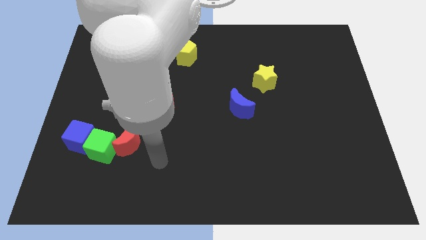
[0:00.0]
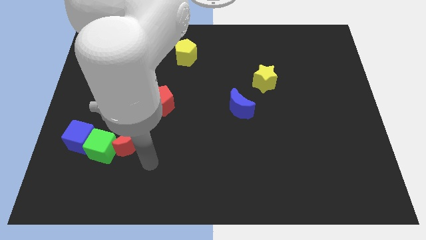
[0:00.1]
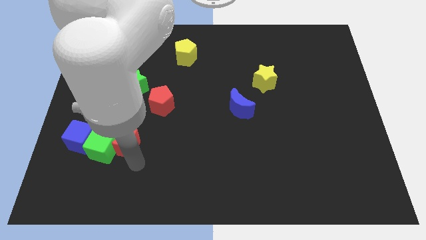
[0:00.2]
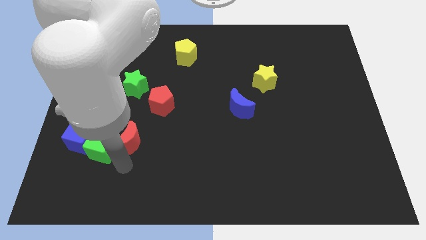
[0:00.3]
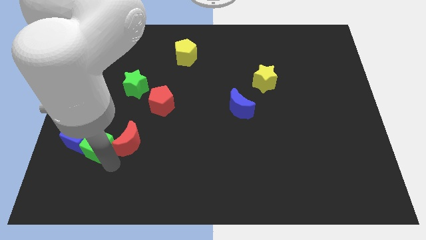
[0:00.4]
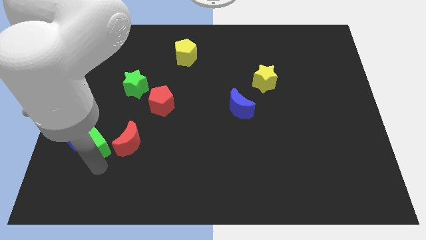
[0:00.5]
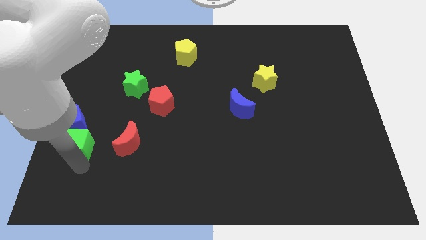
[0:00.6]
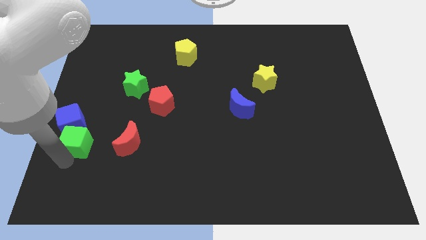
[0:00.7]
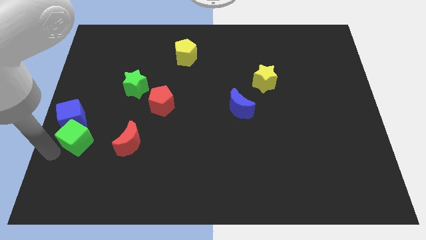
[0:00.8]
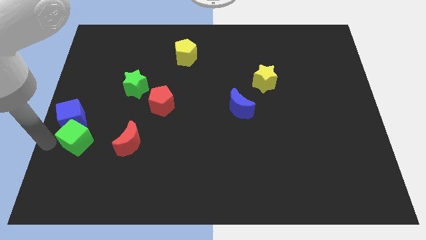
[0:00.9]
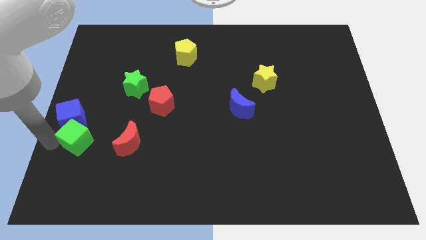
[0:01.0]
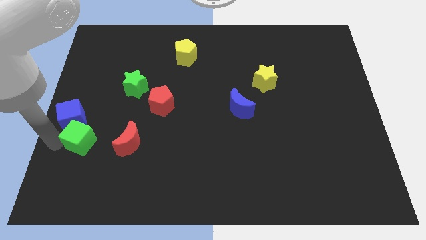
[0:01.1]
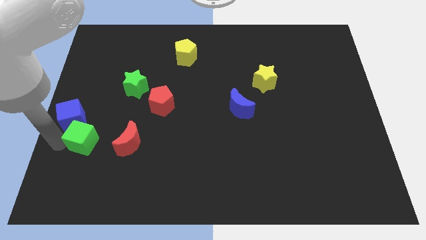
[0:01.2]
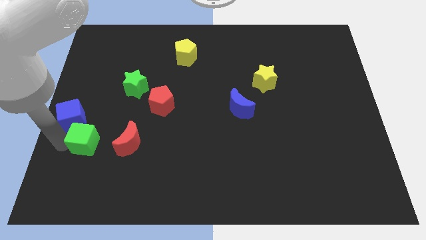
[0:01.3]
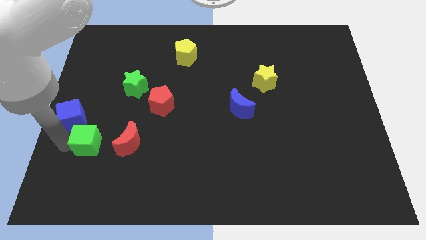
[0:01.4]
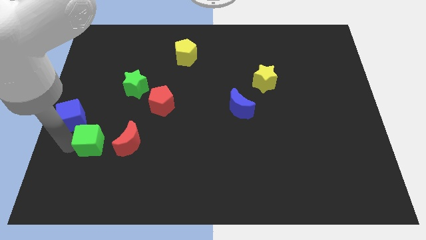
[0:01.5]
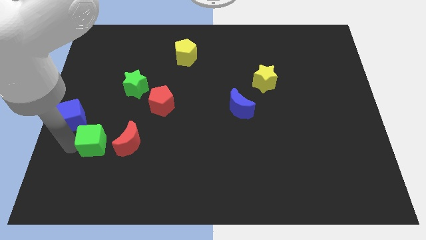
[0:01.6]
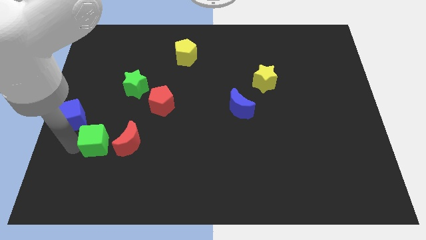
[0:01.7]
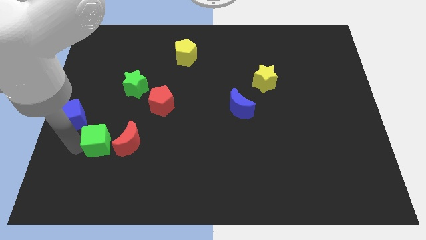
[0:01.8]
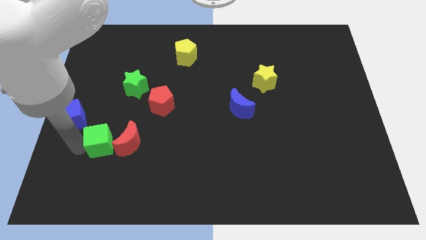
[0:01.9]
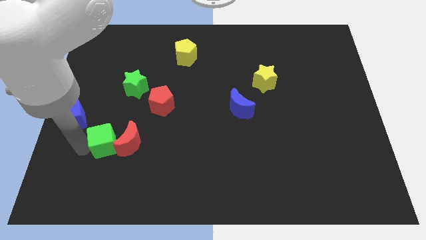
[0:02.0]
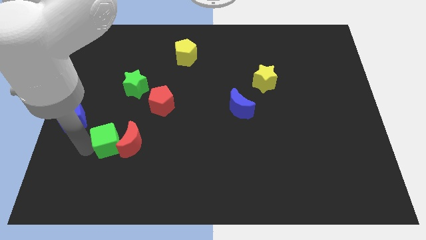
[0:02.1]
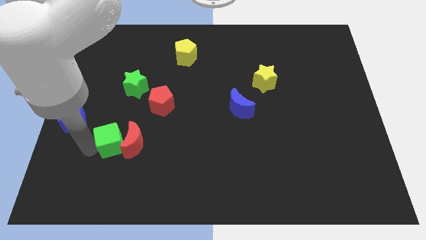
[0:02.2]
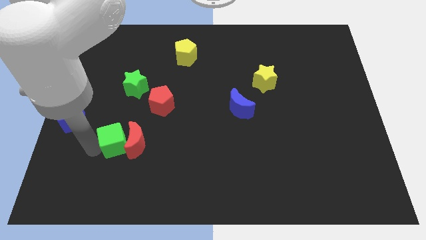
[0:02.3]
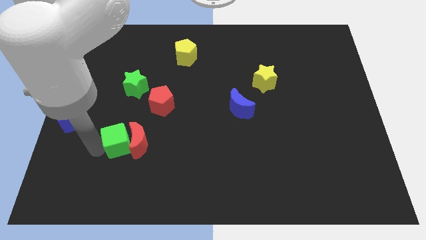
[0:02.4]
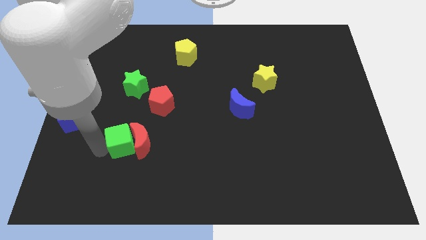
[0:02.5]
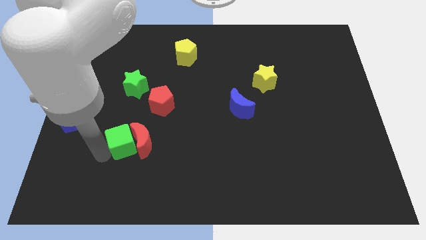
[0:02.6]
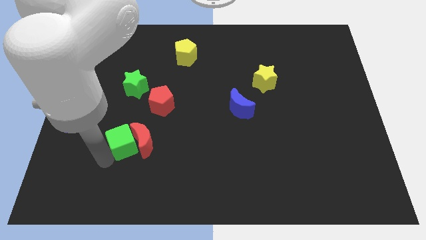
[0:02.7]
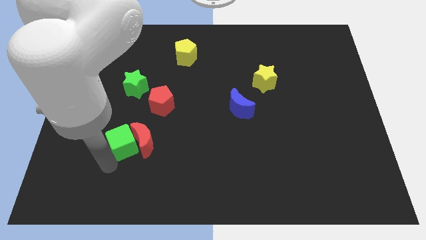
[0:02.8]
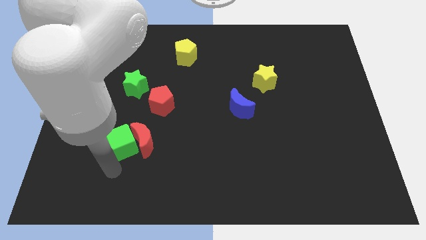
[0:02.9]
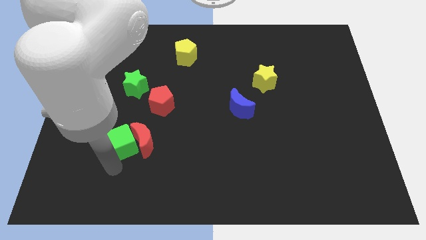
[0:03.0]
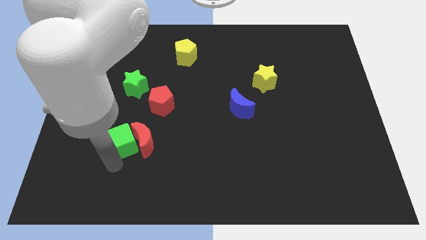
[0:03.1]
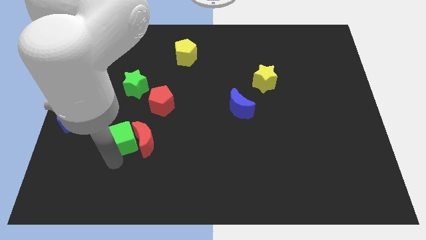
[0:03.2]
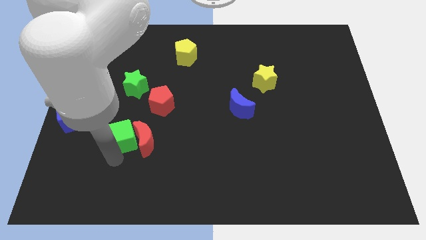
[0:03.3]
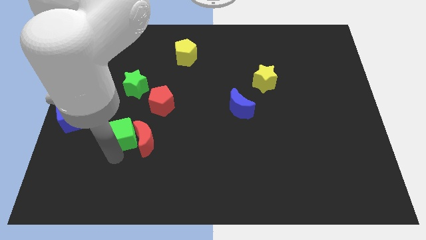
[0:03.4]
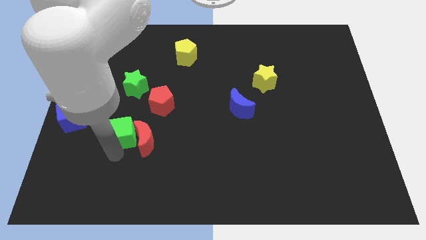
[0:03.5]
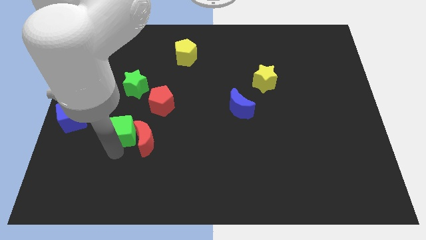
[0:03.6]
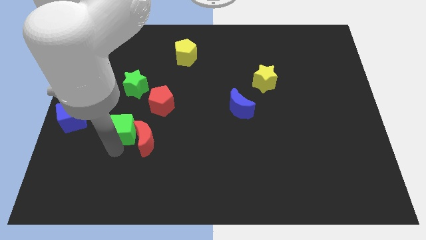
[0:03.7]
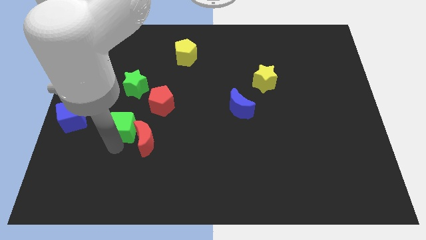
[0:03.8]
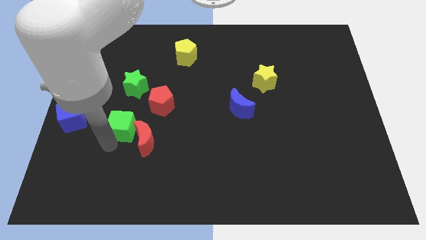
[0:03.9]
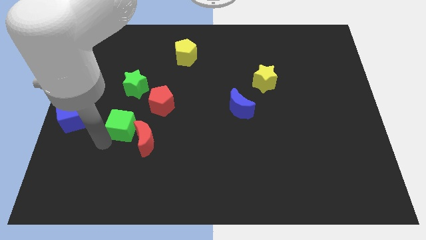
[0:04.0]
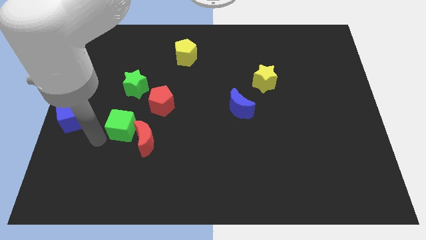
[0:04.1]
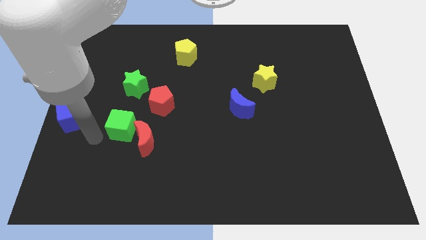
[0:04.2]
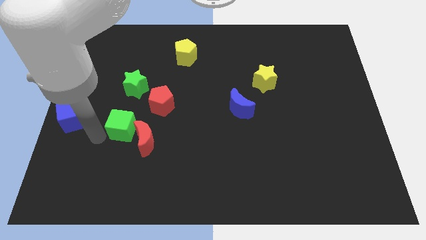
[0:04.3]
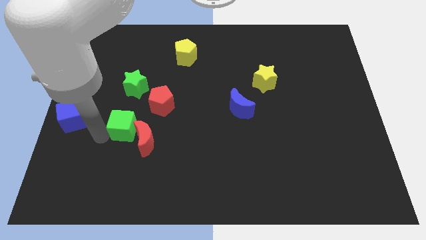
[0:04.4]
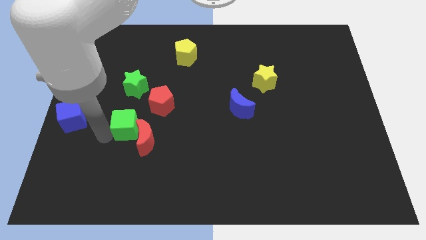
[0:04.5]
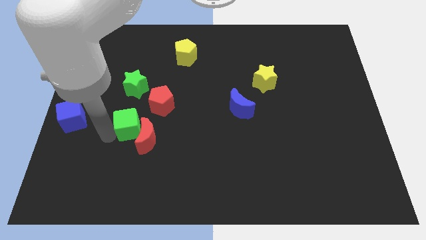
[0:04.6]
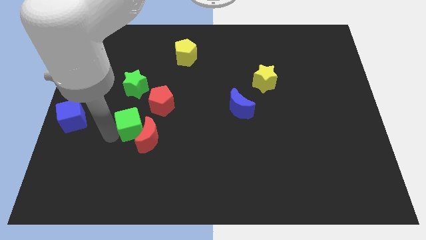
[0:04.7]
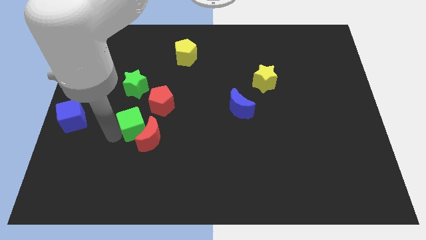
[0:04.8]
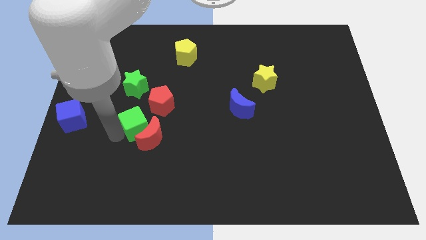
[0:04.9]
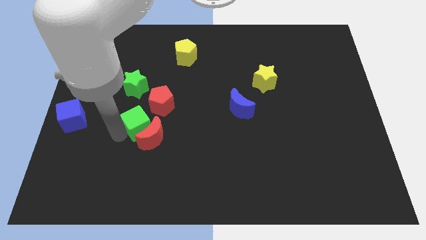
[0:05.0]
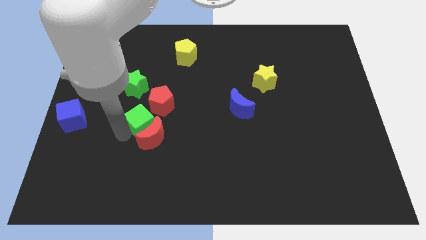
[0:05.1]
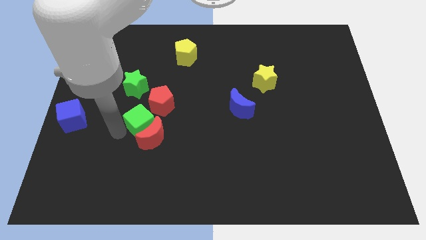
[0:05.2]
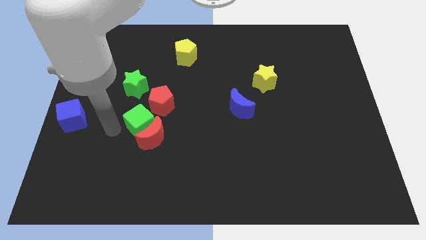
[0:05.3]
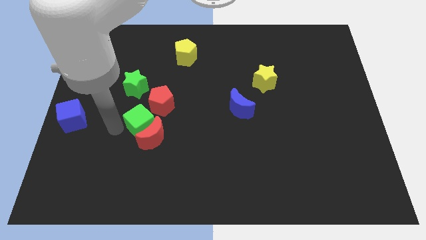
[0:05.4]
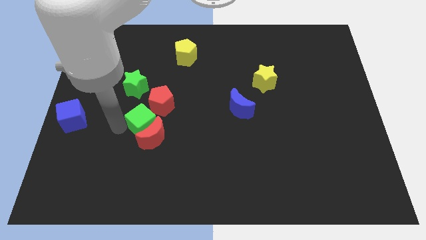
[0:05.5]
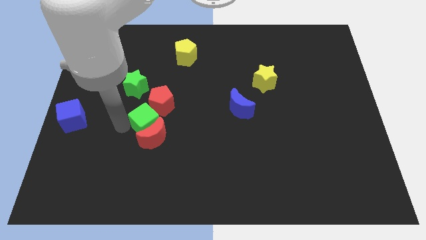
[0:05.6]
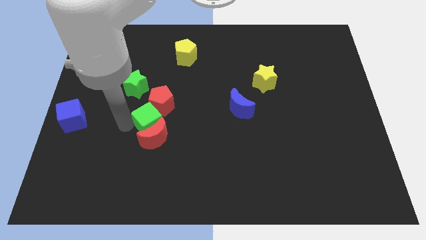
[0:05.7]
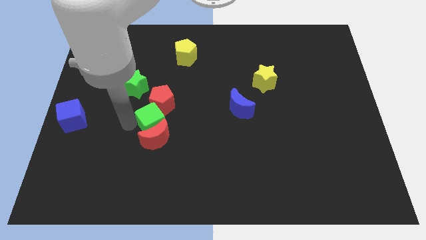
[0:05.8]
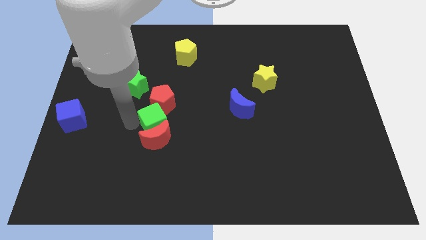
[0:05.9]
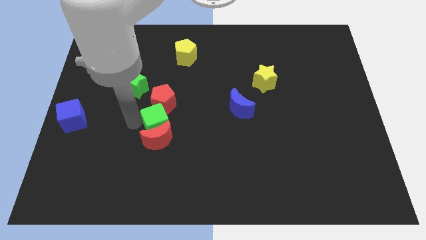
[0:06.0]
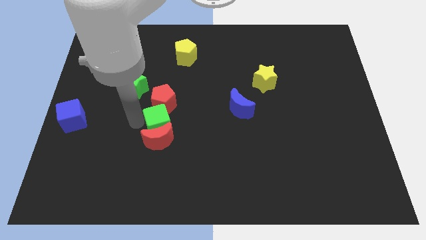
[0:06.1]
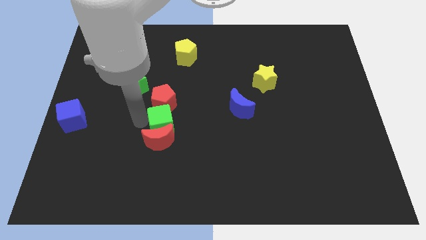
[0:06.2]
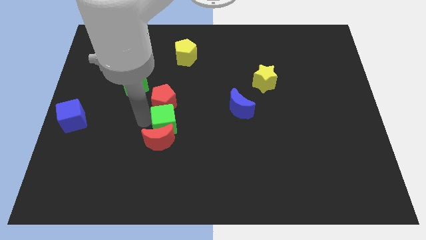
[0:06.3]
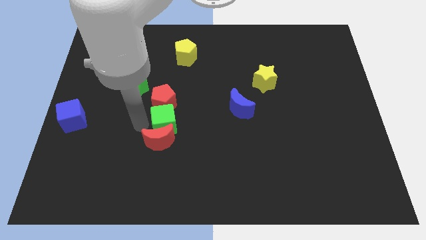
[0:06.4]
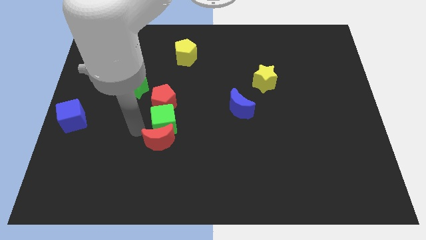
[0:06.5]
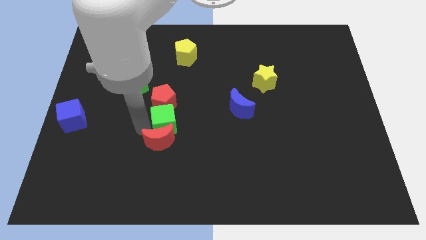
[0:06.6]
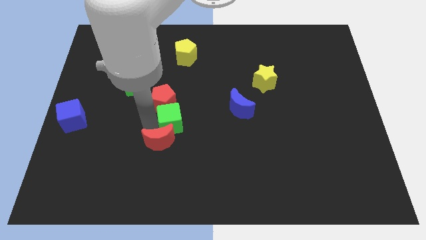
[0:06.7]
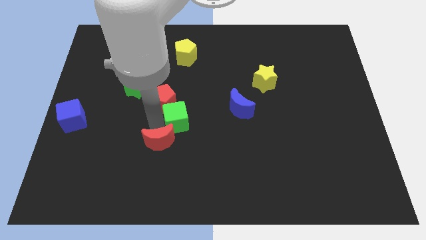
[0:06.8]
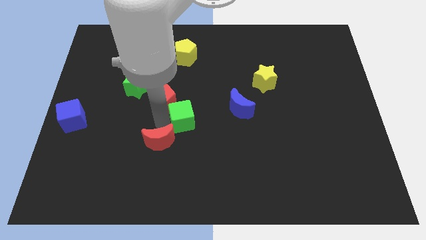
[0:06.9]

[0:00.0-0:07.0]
push the green cube to the right side of the red pentagon

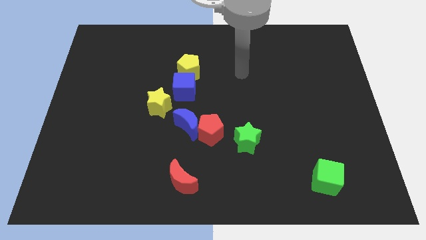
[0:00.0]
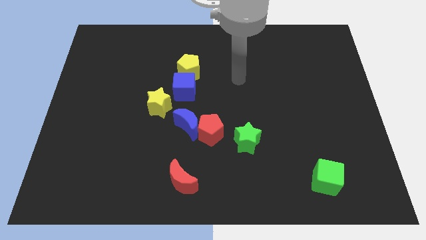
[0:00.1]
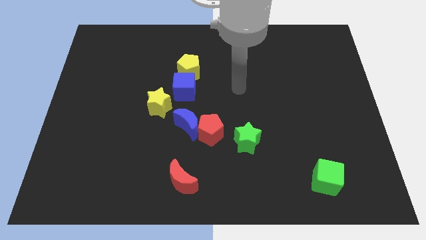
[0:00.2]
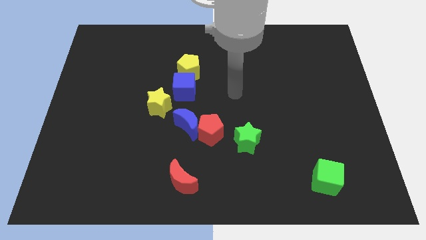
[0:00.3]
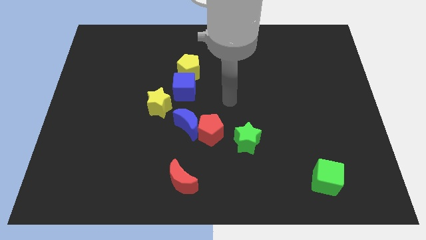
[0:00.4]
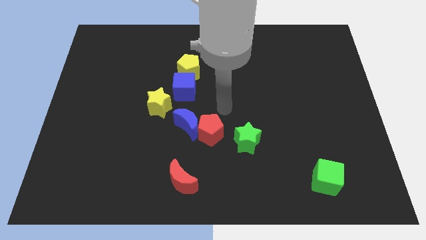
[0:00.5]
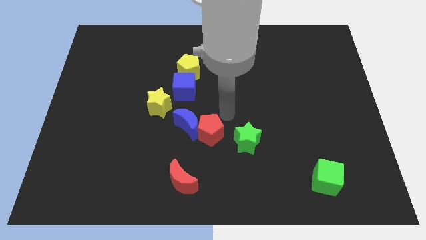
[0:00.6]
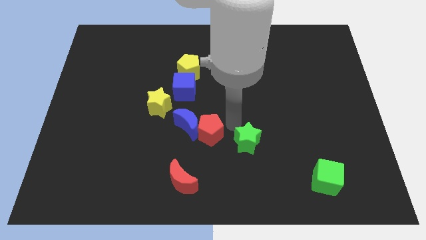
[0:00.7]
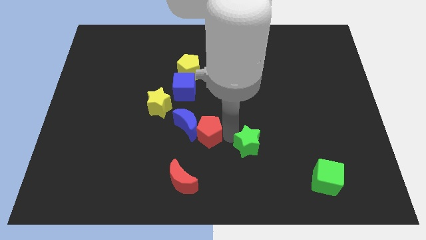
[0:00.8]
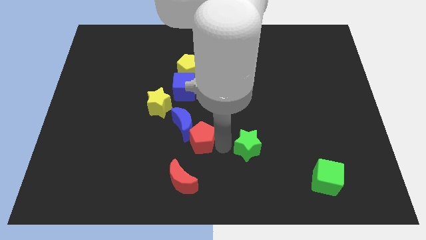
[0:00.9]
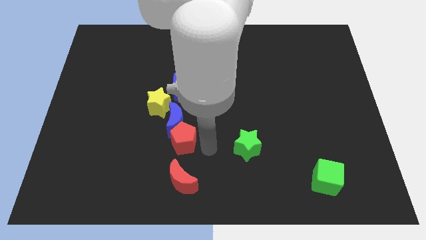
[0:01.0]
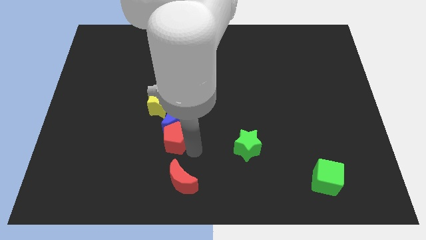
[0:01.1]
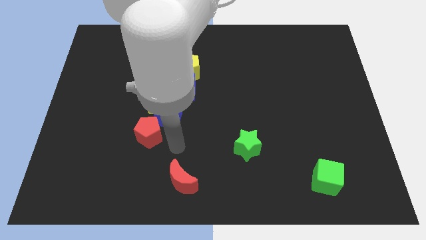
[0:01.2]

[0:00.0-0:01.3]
put the blue moon below the yellow pentagon
